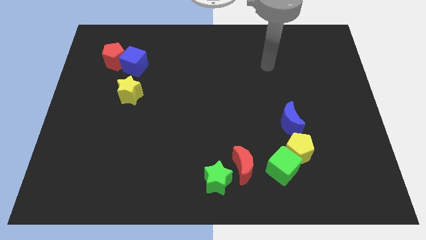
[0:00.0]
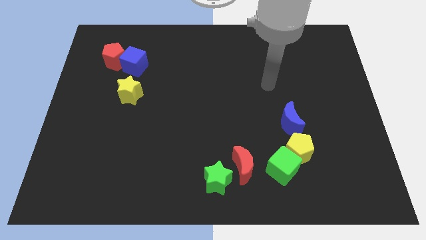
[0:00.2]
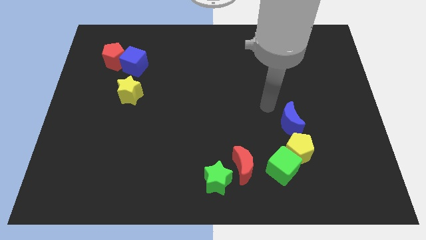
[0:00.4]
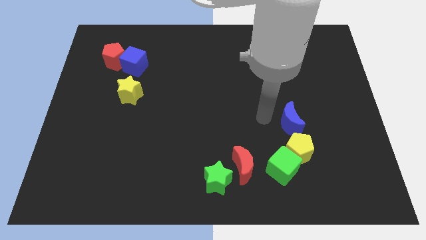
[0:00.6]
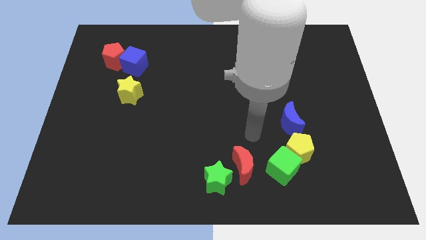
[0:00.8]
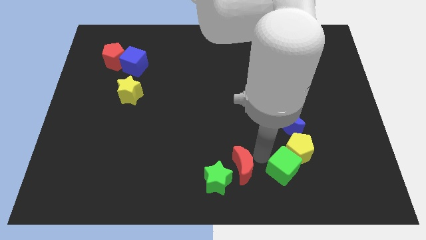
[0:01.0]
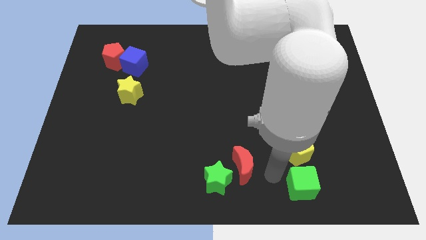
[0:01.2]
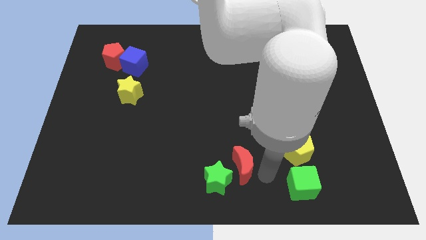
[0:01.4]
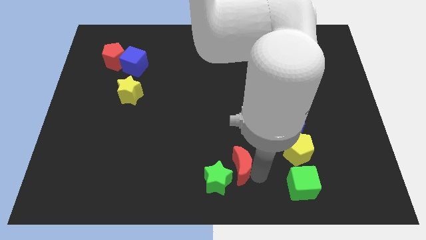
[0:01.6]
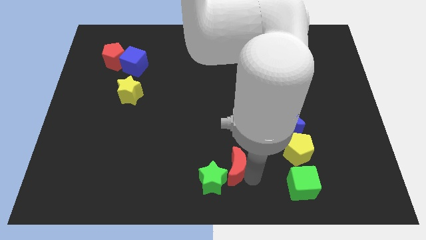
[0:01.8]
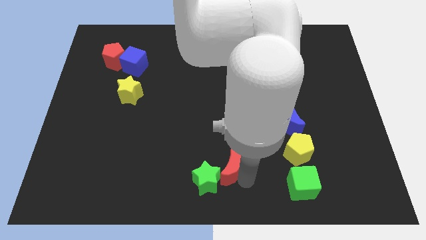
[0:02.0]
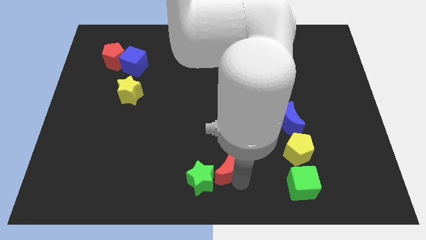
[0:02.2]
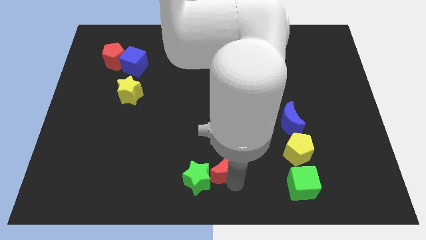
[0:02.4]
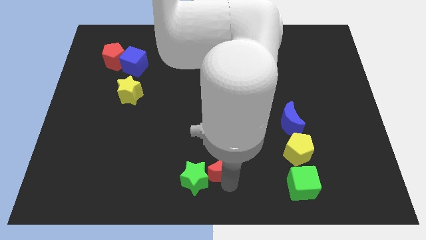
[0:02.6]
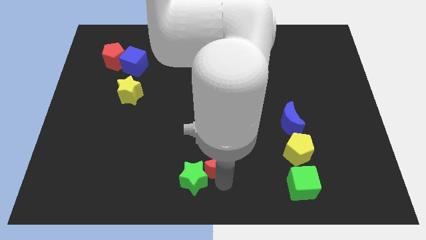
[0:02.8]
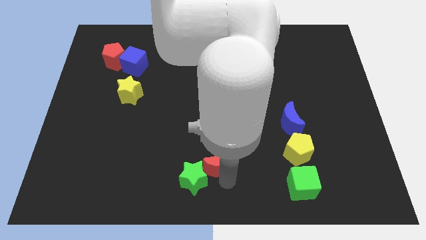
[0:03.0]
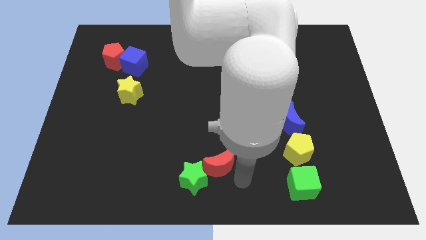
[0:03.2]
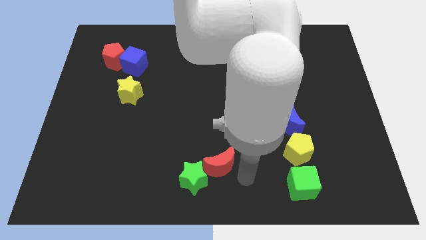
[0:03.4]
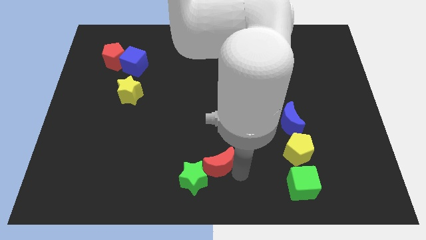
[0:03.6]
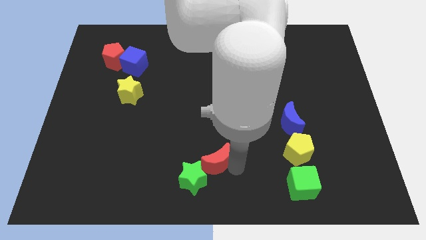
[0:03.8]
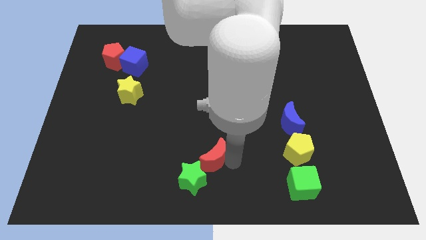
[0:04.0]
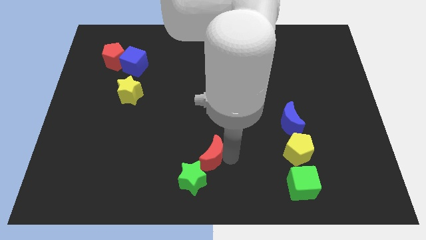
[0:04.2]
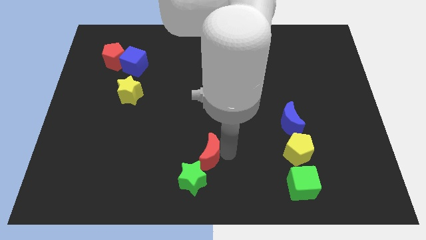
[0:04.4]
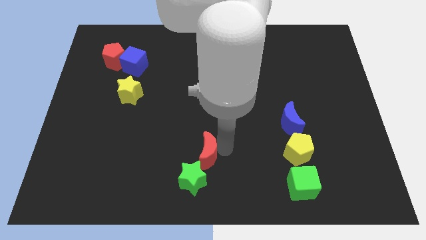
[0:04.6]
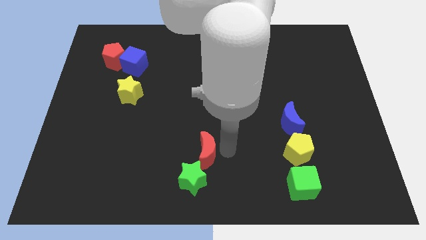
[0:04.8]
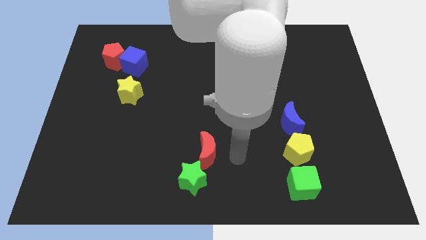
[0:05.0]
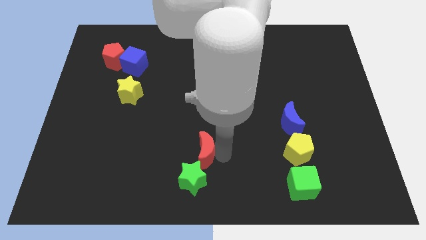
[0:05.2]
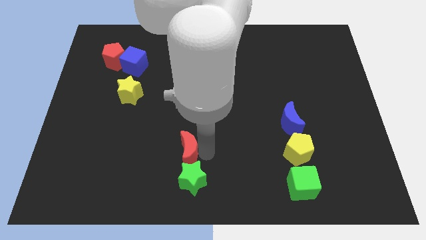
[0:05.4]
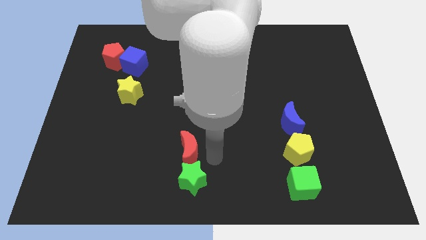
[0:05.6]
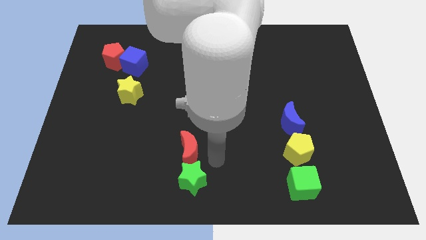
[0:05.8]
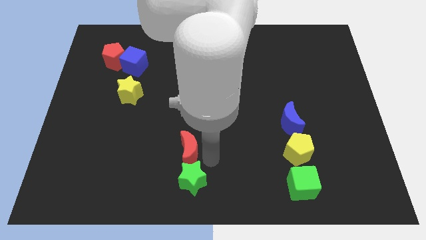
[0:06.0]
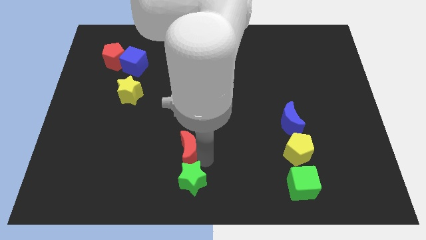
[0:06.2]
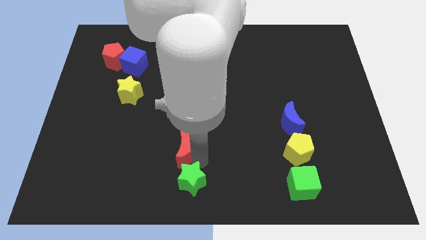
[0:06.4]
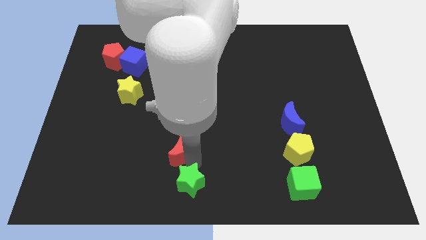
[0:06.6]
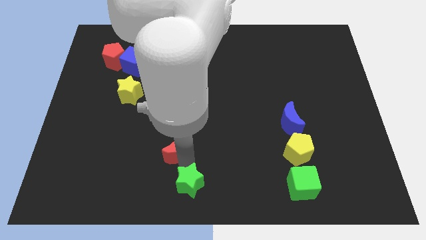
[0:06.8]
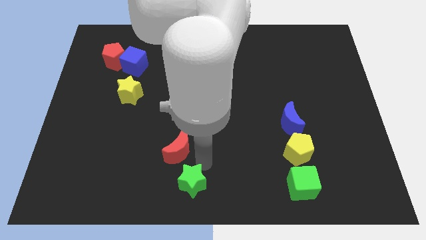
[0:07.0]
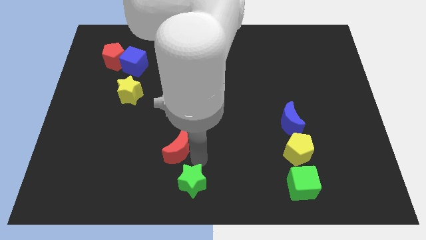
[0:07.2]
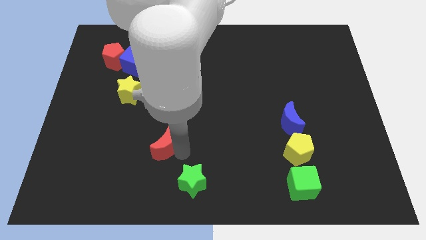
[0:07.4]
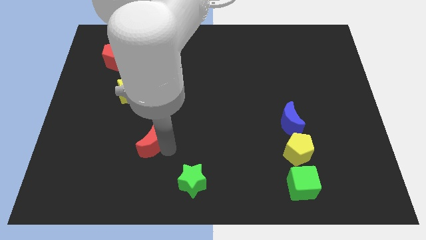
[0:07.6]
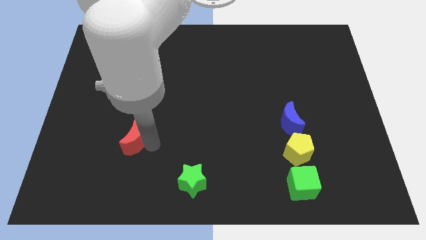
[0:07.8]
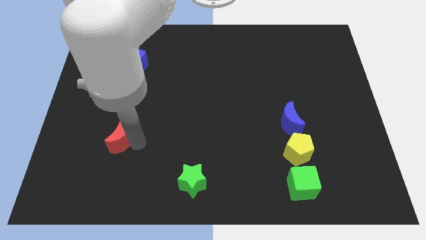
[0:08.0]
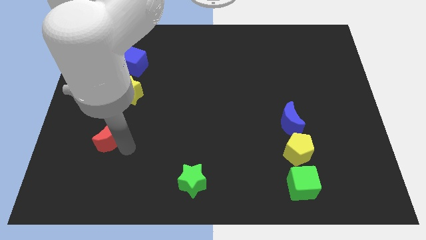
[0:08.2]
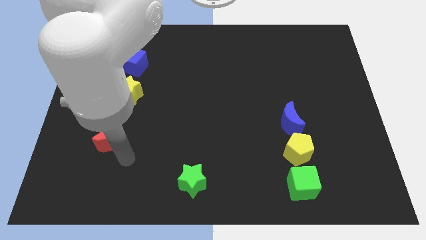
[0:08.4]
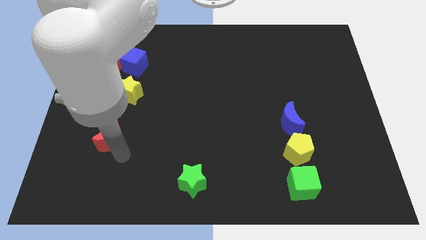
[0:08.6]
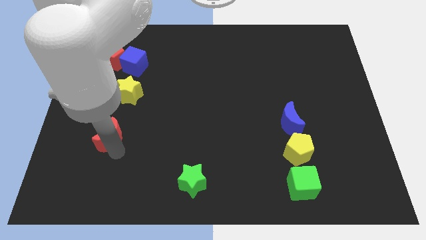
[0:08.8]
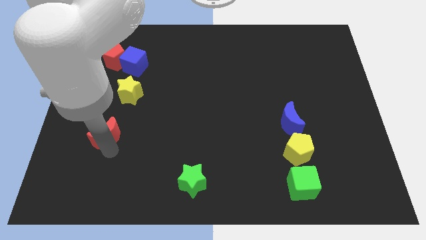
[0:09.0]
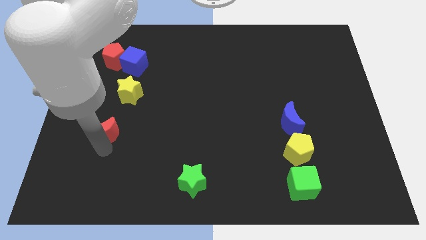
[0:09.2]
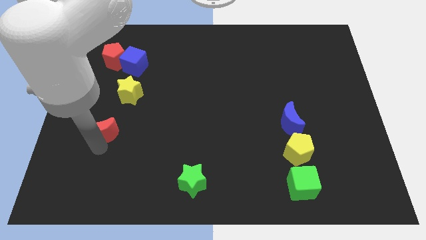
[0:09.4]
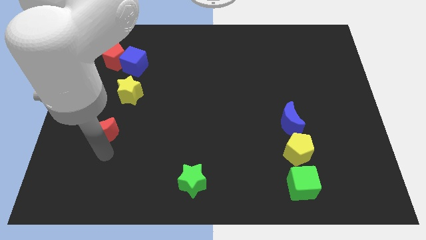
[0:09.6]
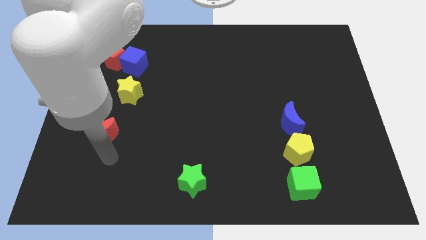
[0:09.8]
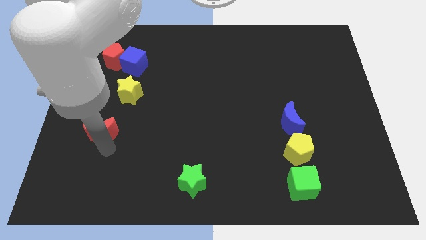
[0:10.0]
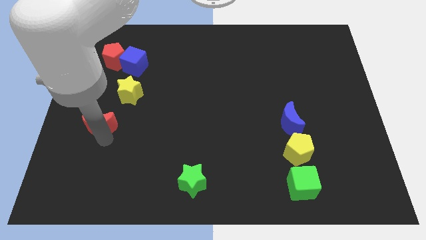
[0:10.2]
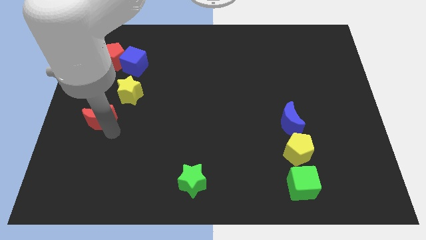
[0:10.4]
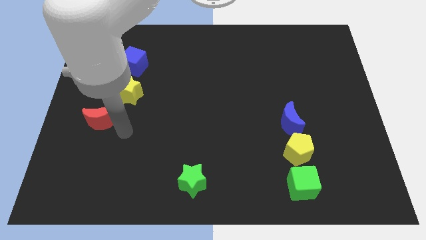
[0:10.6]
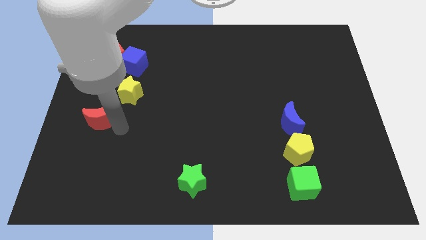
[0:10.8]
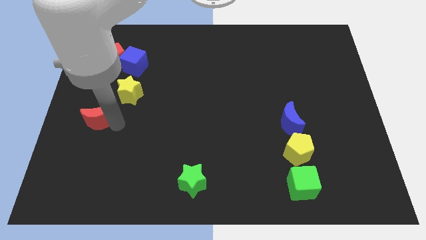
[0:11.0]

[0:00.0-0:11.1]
slide the red moon to the left side
